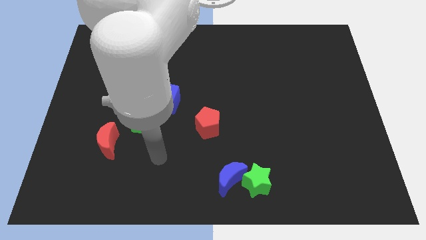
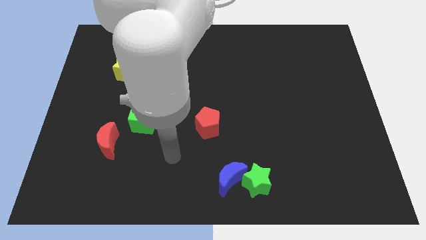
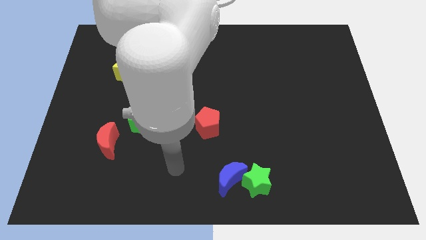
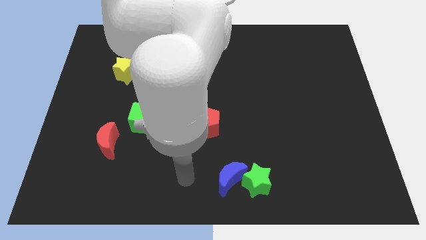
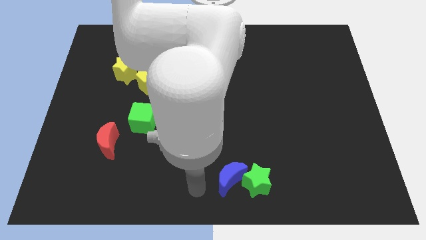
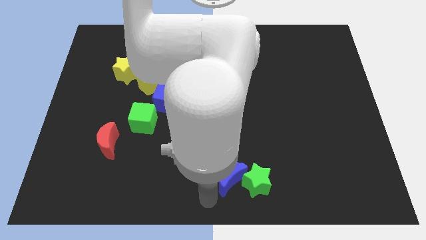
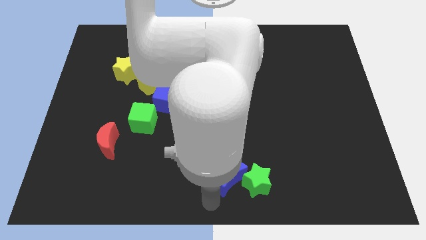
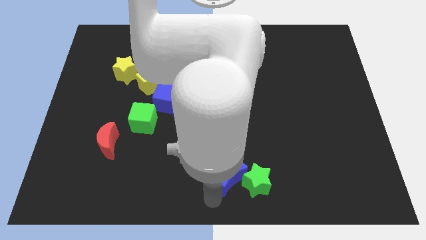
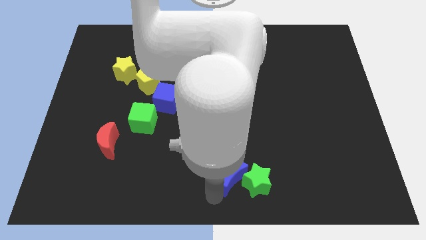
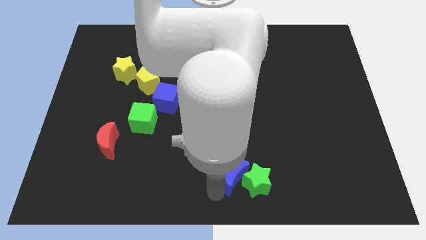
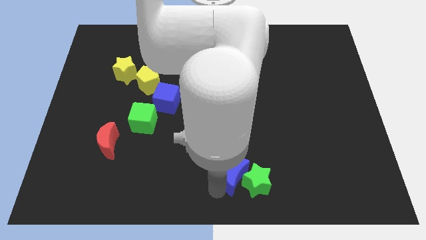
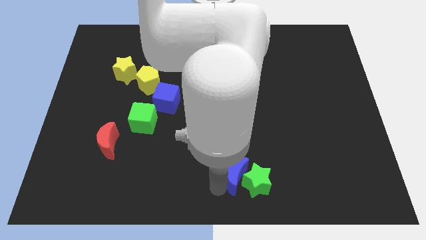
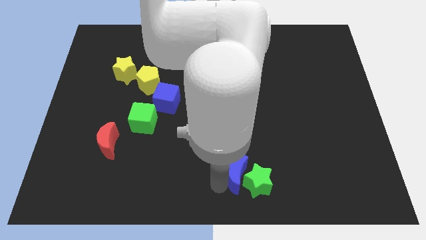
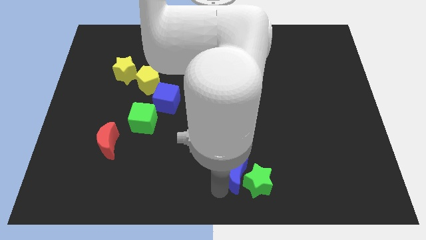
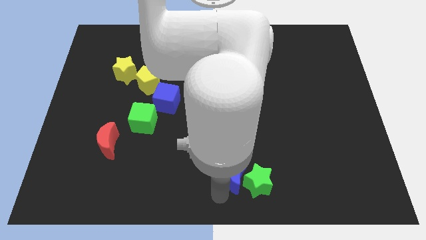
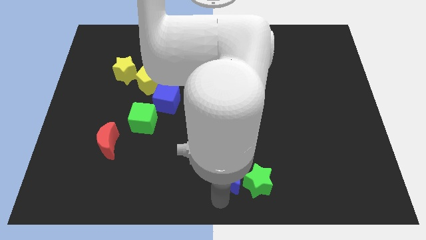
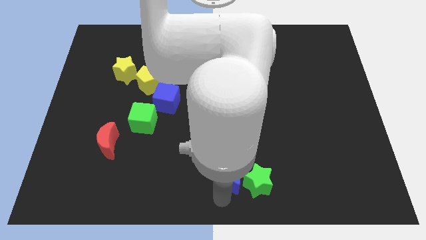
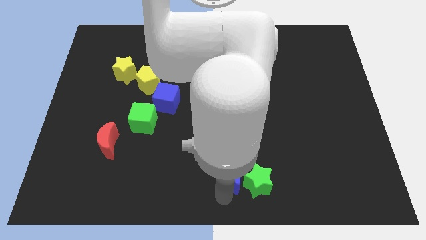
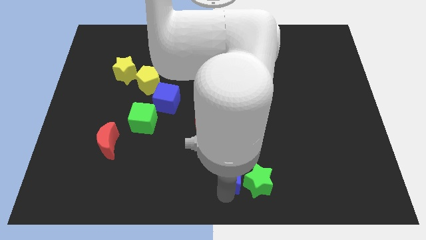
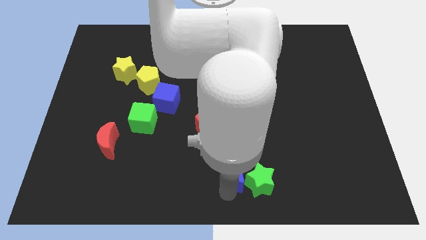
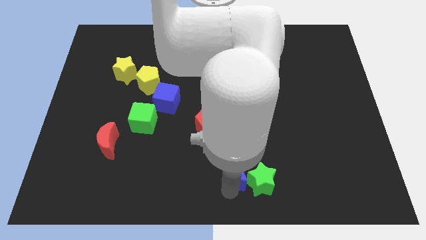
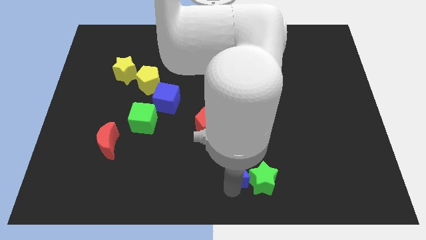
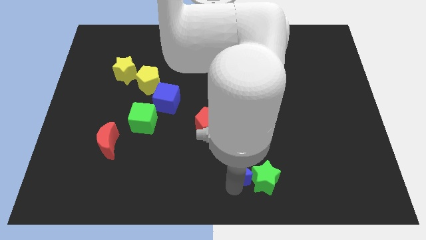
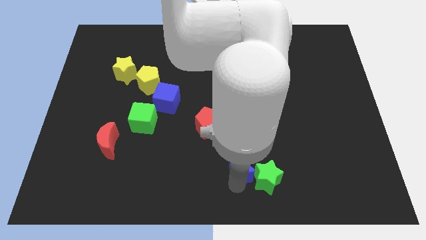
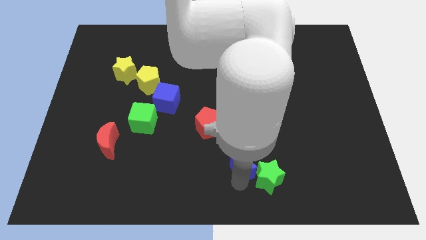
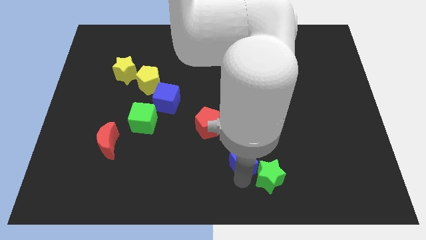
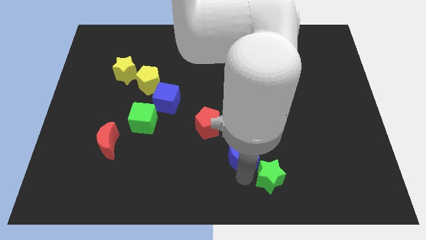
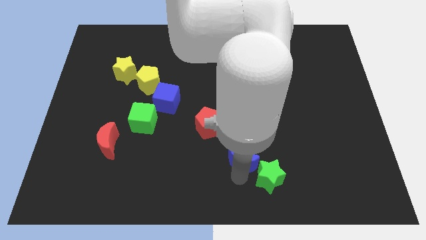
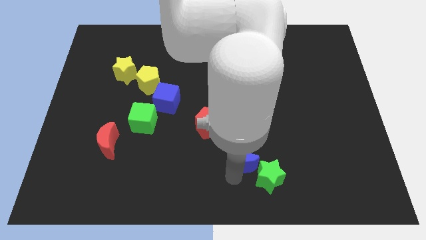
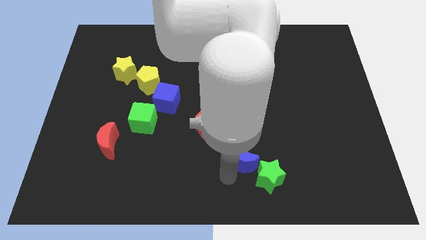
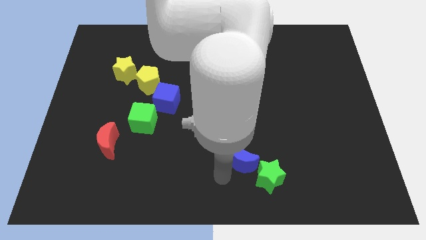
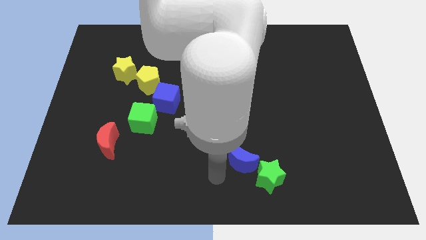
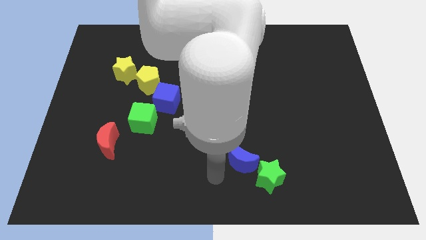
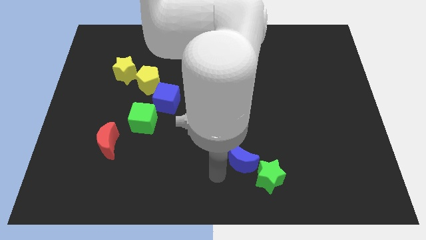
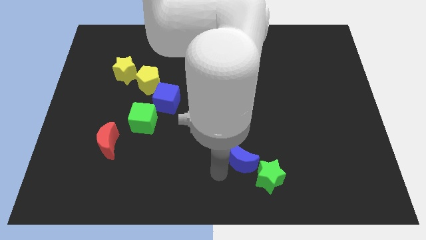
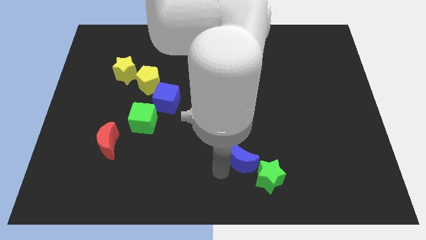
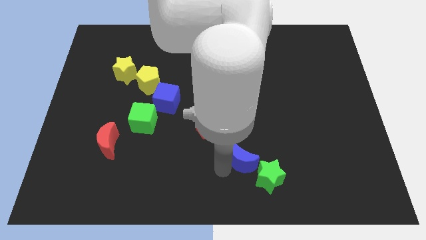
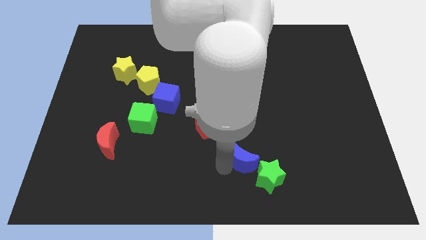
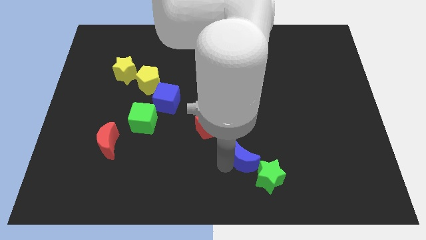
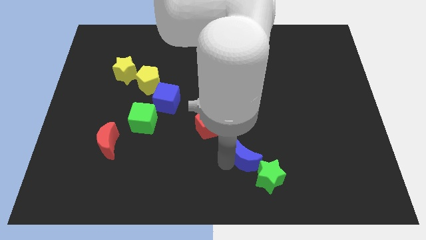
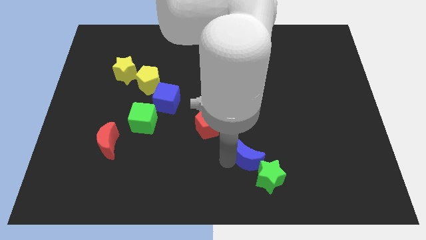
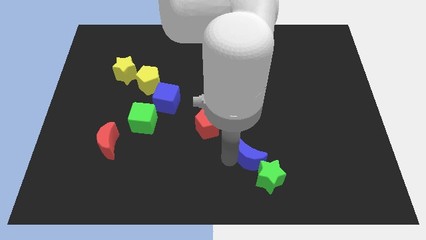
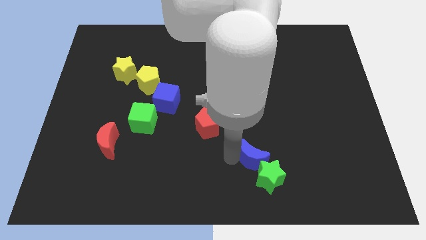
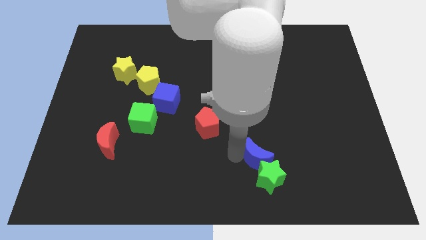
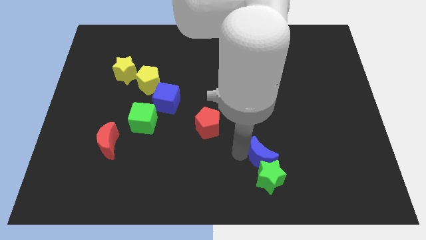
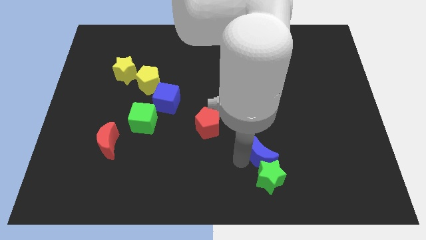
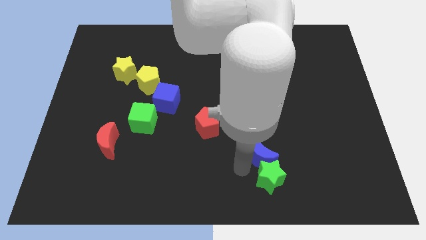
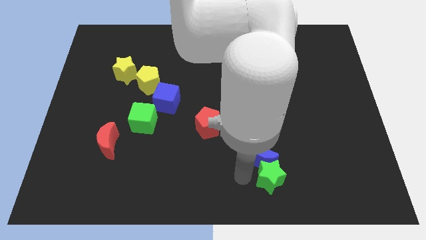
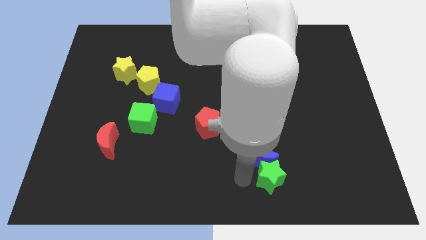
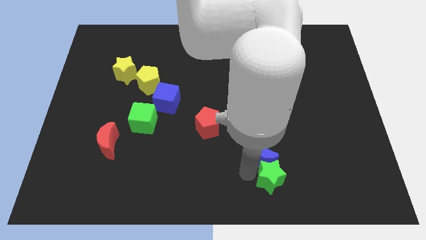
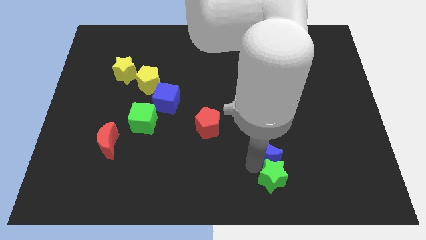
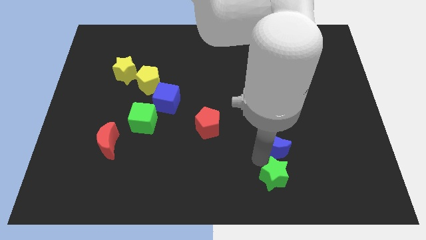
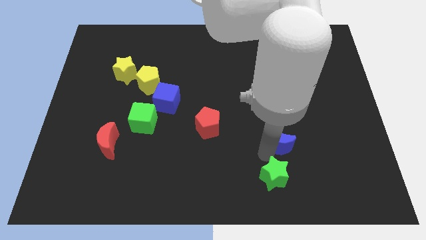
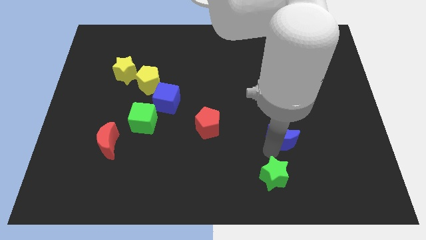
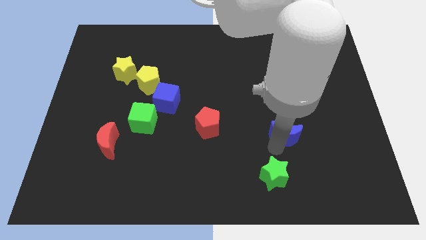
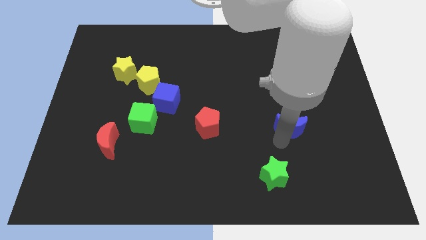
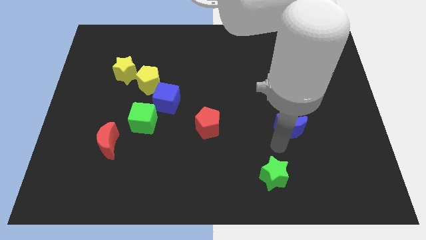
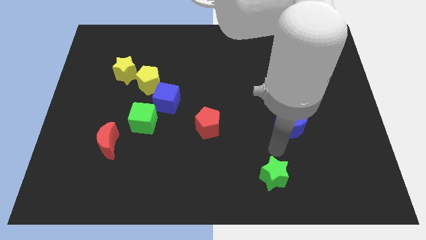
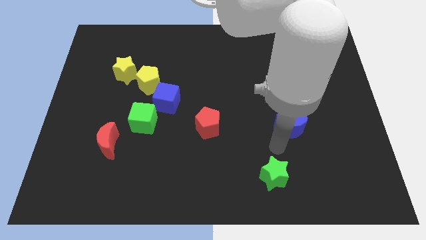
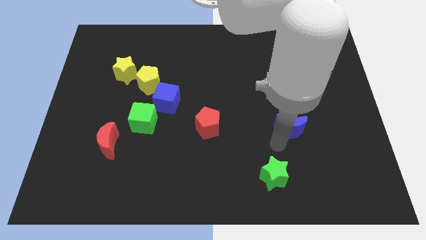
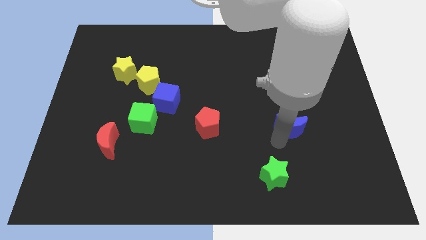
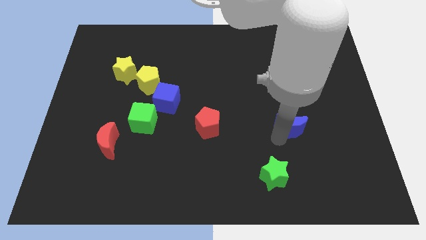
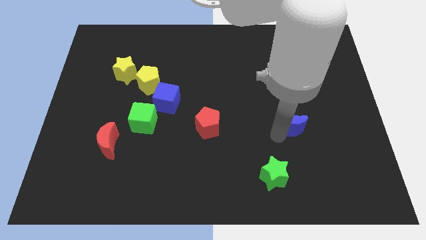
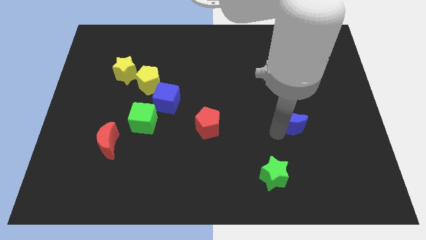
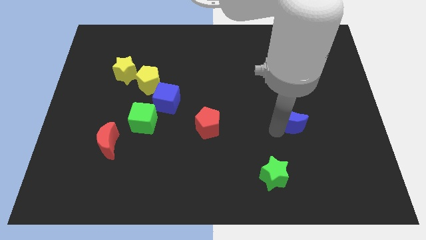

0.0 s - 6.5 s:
move the blue moon diagonally up and right

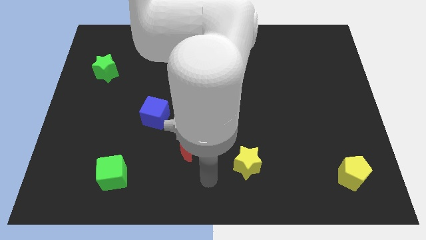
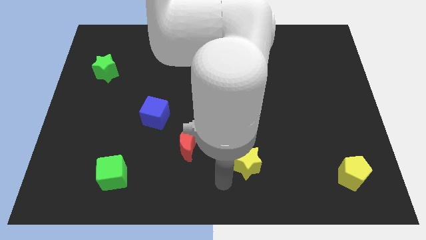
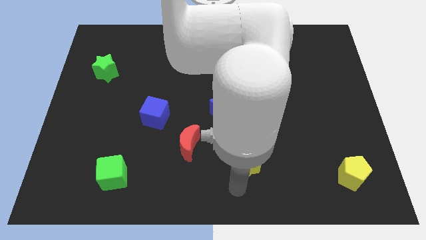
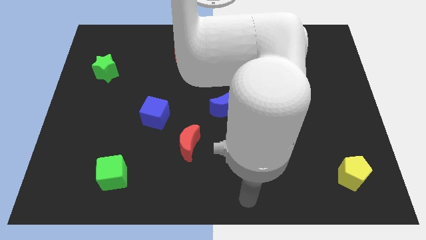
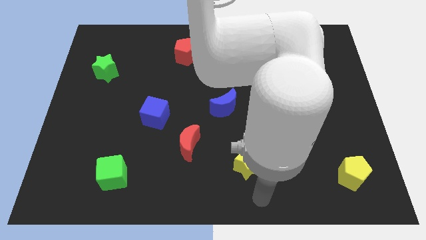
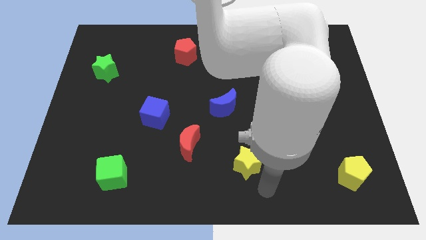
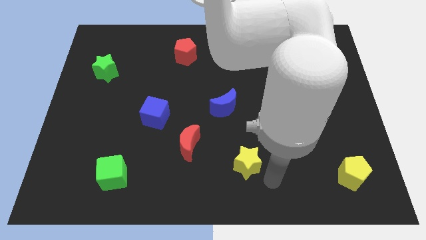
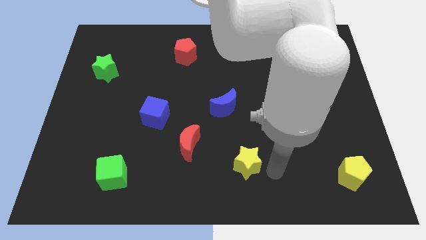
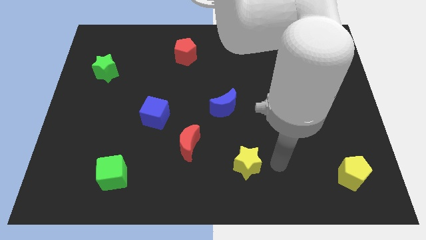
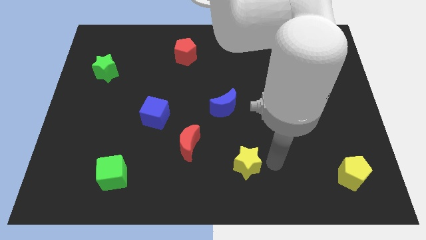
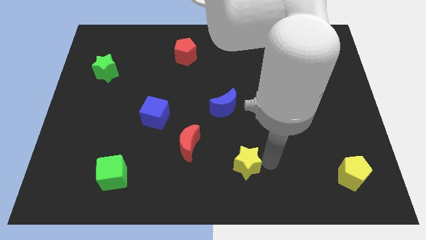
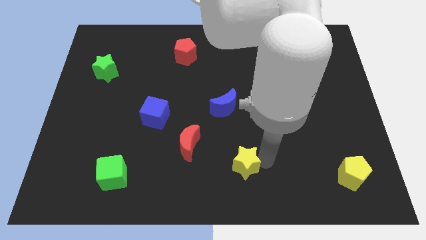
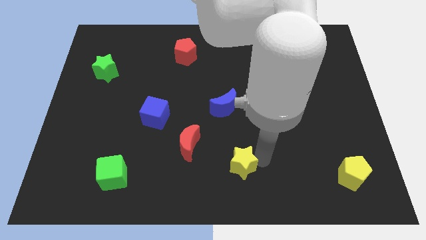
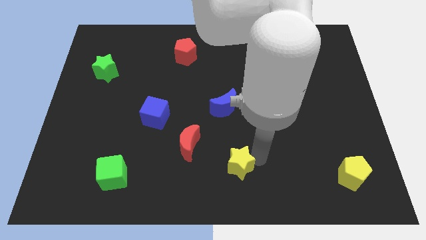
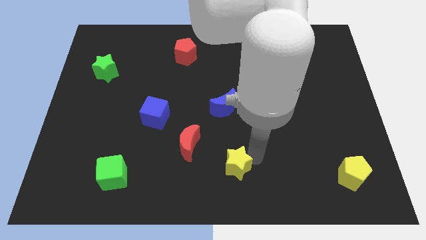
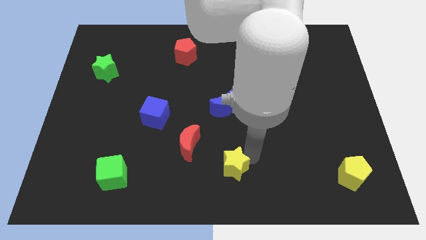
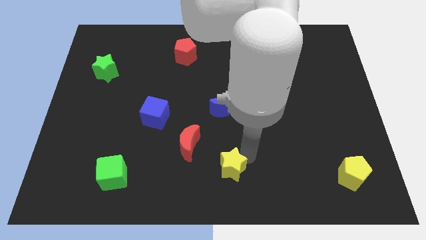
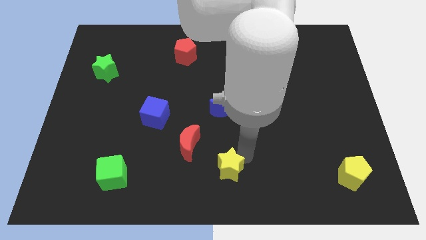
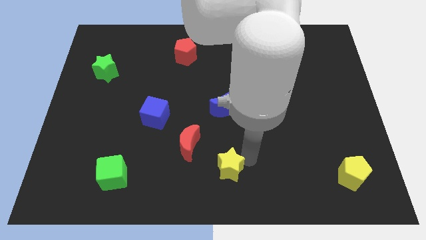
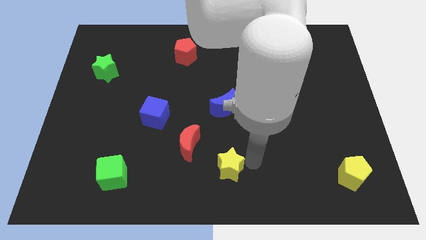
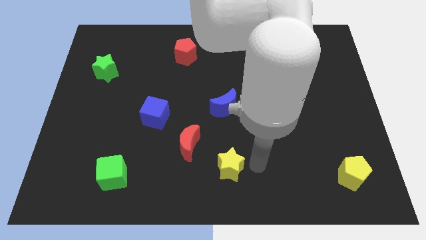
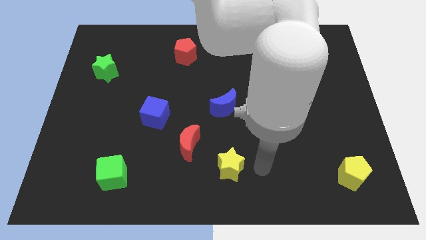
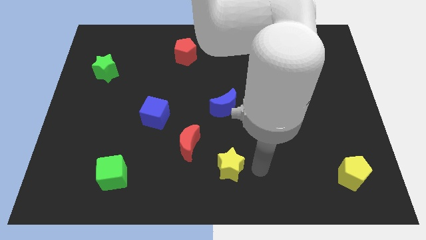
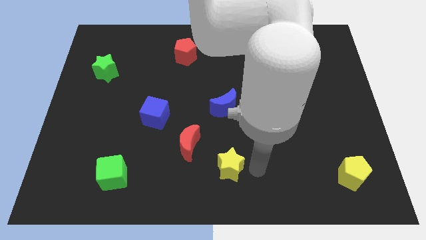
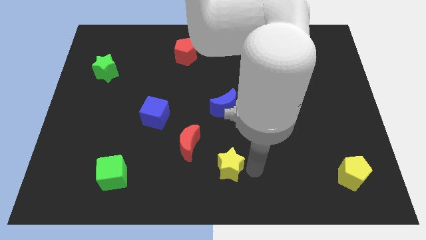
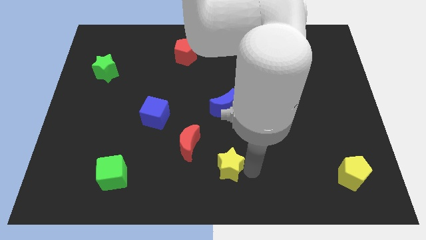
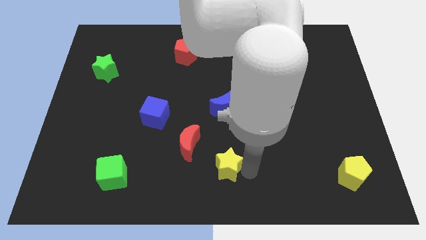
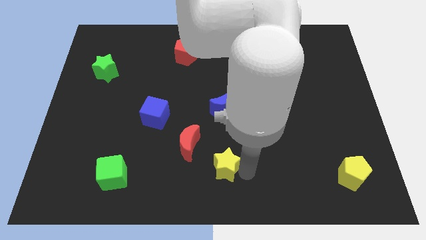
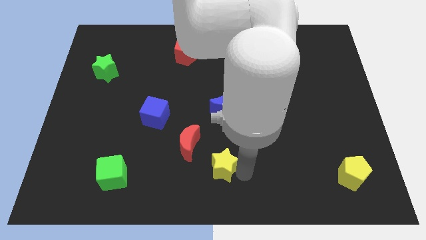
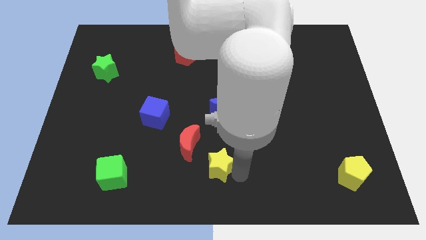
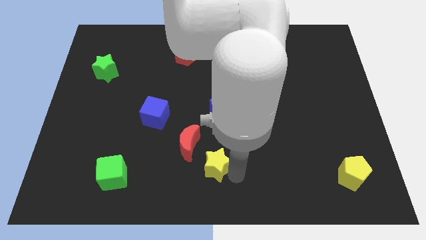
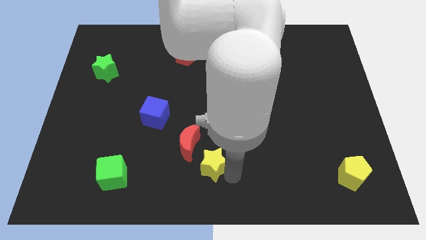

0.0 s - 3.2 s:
move the yellow star a bit left
